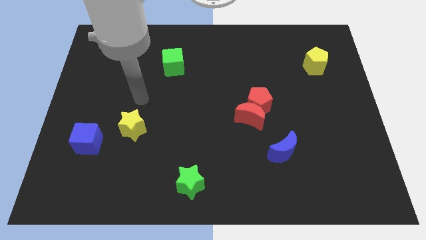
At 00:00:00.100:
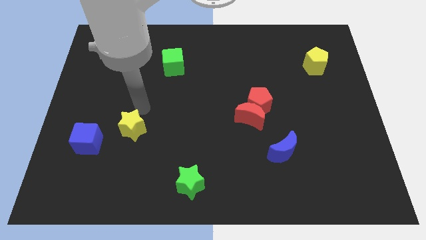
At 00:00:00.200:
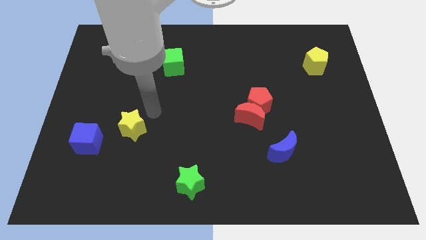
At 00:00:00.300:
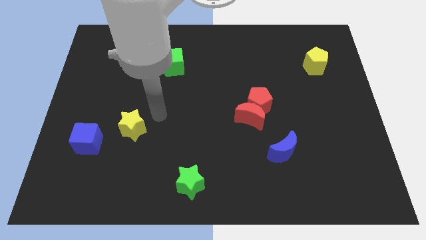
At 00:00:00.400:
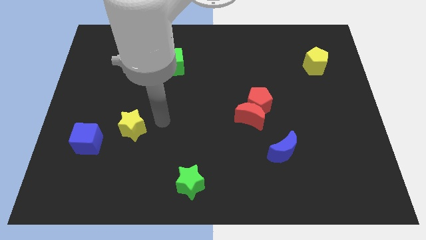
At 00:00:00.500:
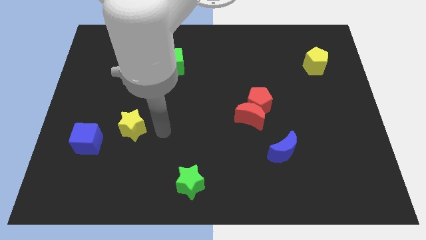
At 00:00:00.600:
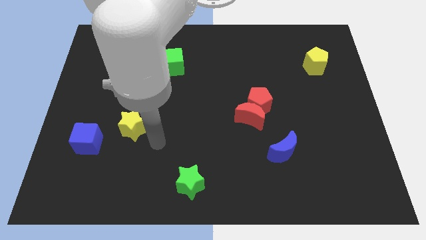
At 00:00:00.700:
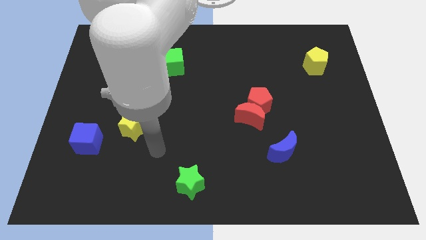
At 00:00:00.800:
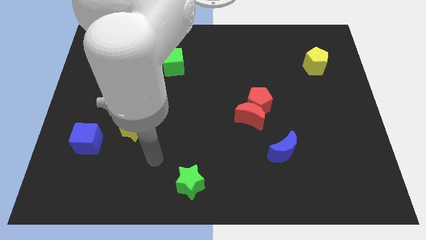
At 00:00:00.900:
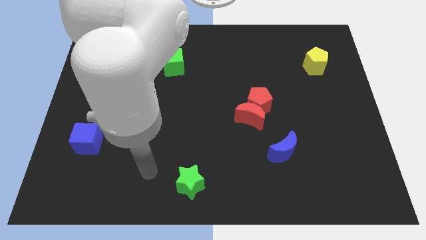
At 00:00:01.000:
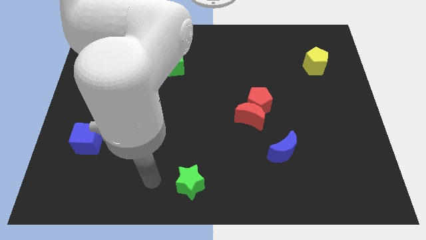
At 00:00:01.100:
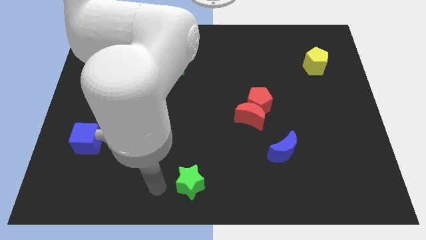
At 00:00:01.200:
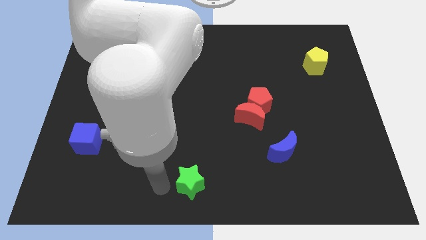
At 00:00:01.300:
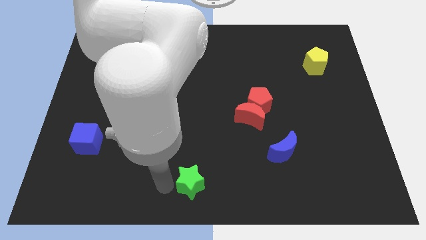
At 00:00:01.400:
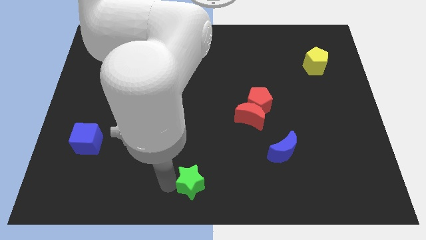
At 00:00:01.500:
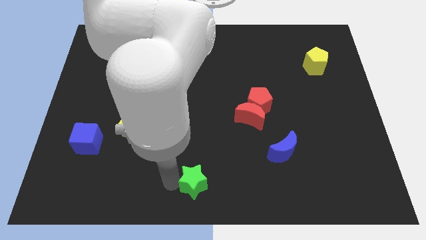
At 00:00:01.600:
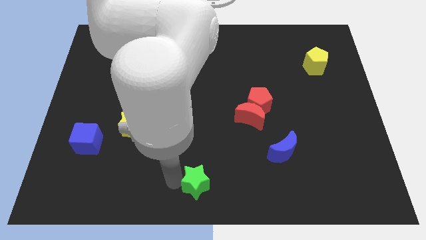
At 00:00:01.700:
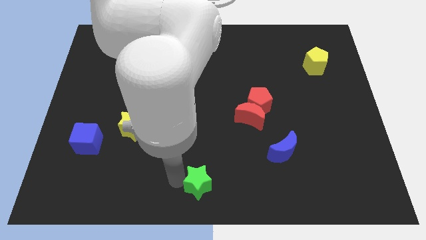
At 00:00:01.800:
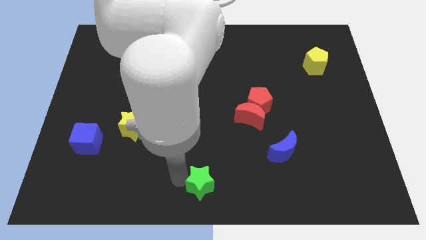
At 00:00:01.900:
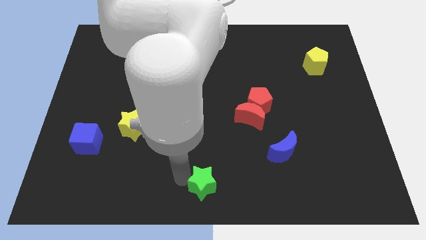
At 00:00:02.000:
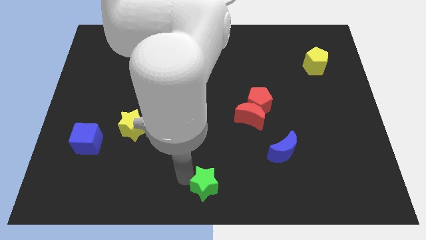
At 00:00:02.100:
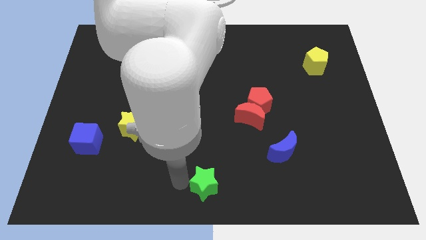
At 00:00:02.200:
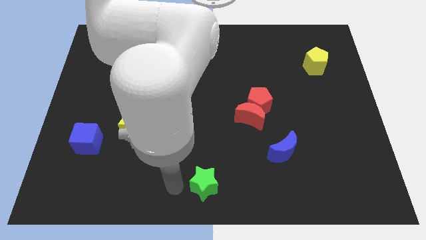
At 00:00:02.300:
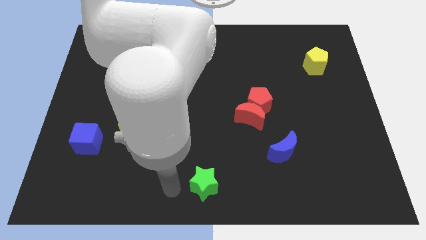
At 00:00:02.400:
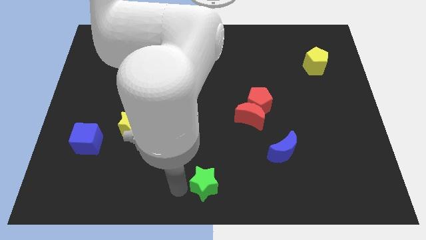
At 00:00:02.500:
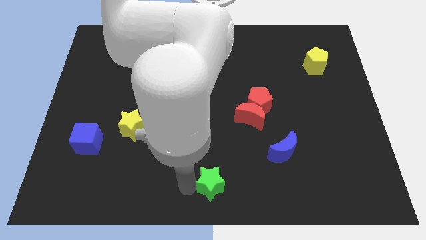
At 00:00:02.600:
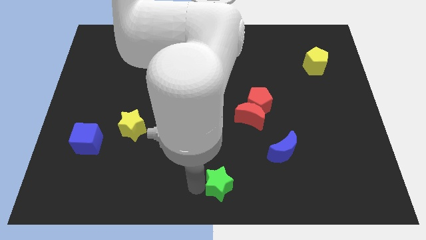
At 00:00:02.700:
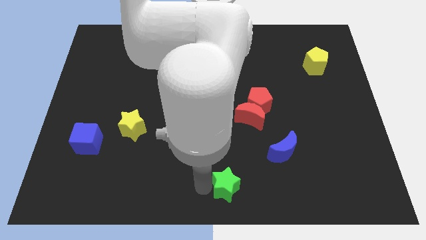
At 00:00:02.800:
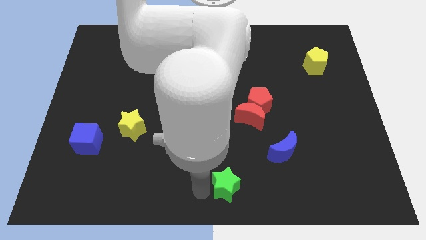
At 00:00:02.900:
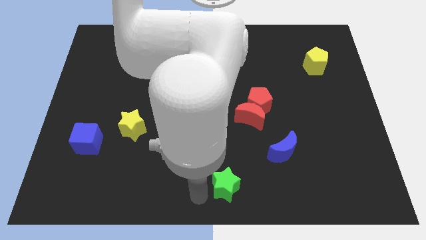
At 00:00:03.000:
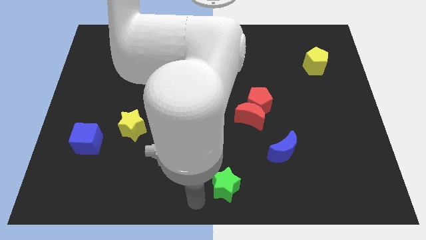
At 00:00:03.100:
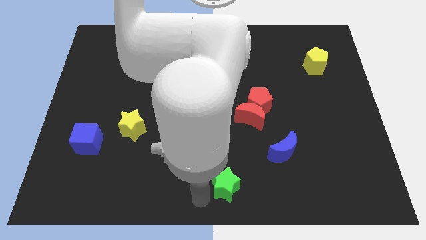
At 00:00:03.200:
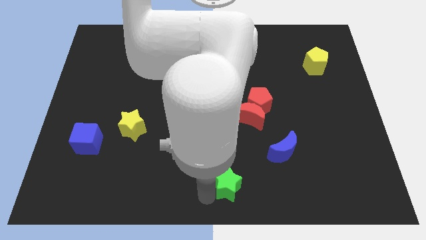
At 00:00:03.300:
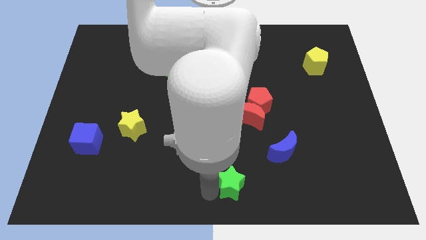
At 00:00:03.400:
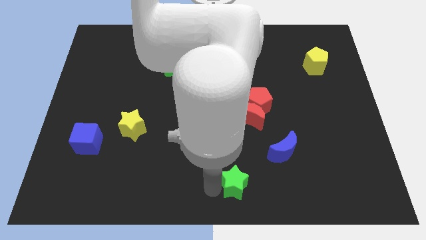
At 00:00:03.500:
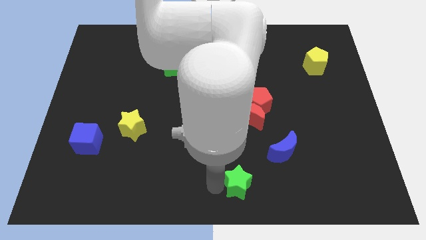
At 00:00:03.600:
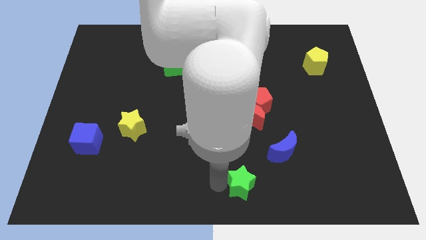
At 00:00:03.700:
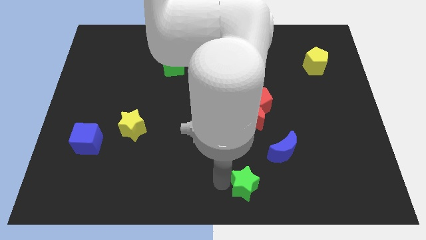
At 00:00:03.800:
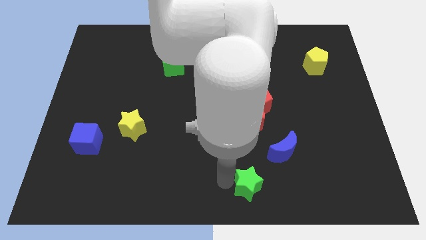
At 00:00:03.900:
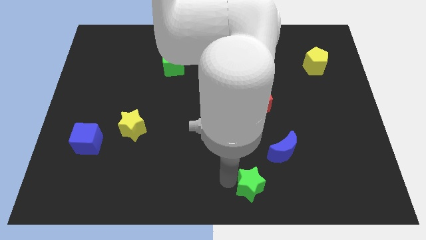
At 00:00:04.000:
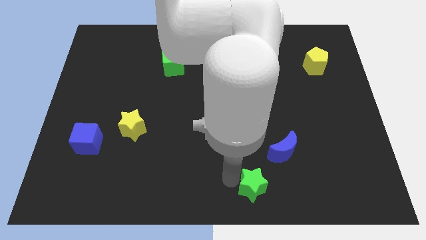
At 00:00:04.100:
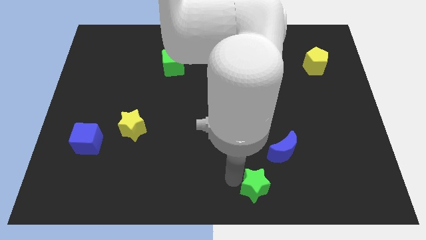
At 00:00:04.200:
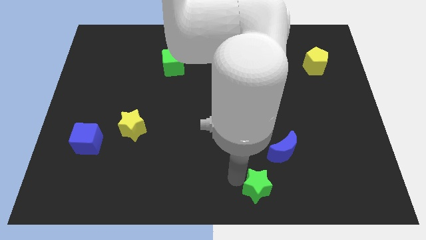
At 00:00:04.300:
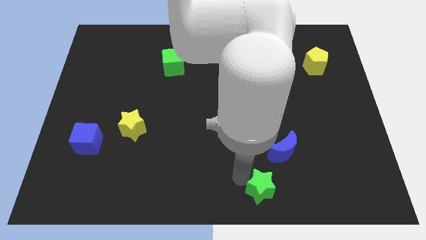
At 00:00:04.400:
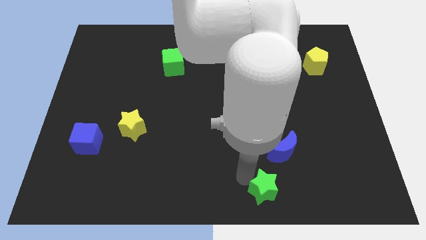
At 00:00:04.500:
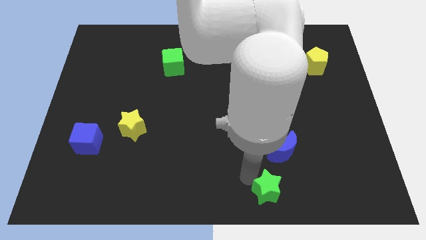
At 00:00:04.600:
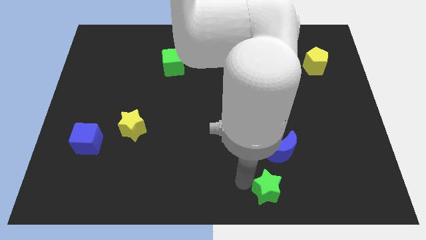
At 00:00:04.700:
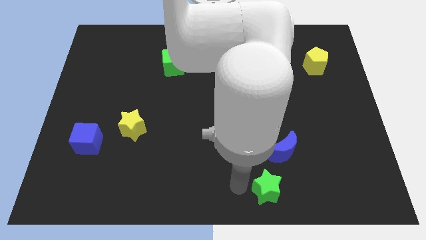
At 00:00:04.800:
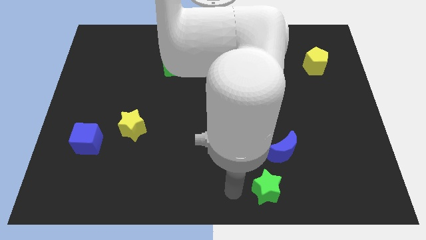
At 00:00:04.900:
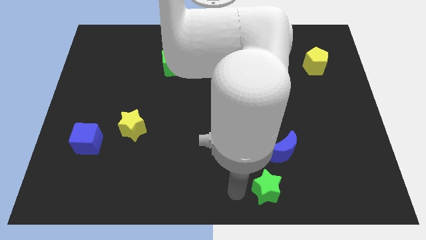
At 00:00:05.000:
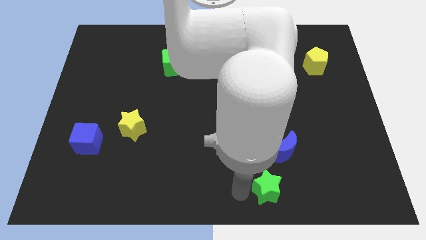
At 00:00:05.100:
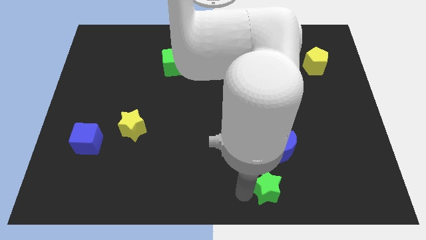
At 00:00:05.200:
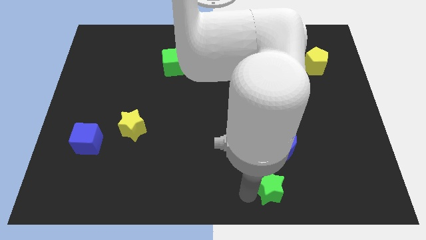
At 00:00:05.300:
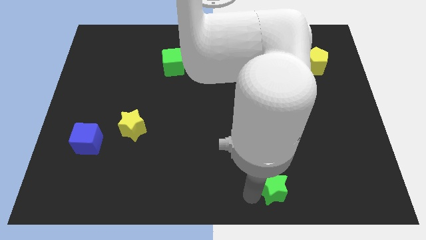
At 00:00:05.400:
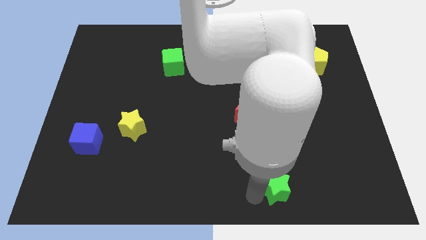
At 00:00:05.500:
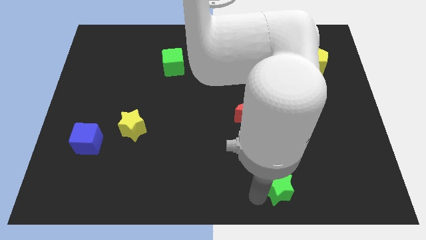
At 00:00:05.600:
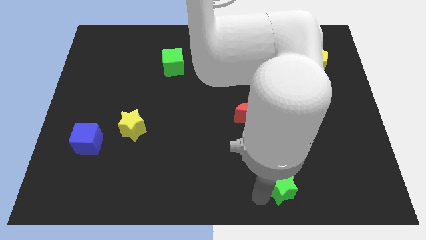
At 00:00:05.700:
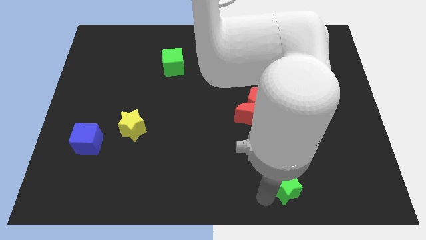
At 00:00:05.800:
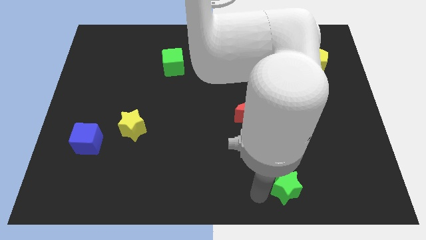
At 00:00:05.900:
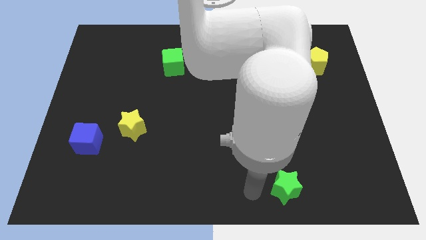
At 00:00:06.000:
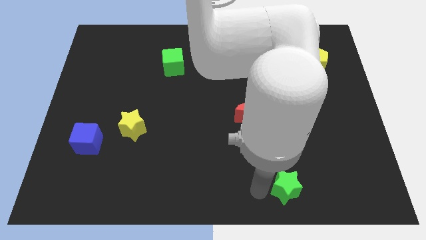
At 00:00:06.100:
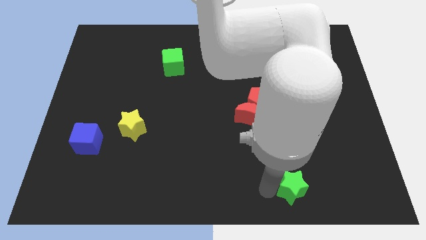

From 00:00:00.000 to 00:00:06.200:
push the green star right

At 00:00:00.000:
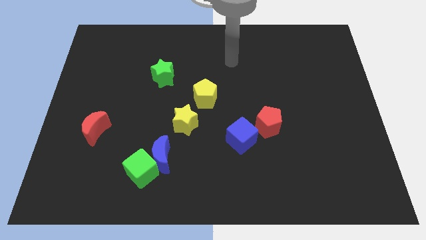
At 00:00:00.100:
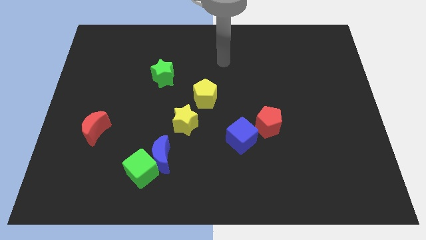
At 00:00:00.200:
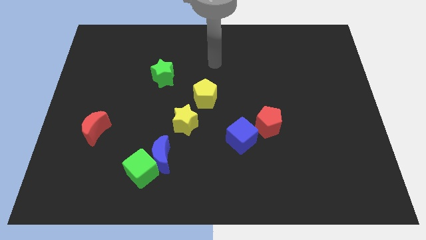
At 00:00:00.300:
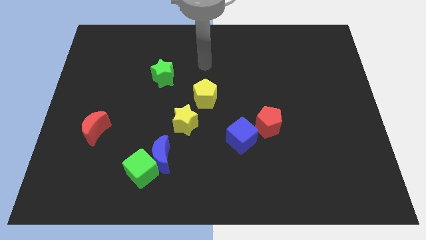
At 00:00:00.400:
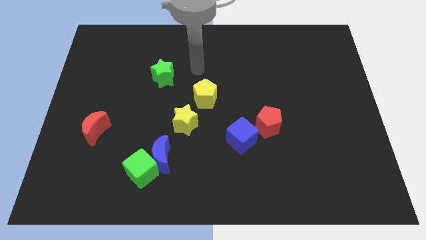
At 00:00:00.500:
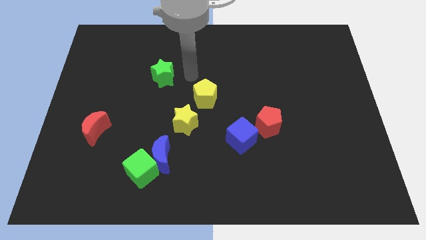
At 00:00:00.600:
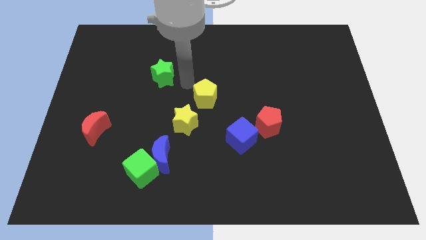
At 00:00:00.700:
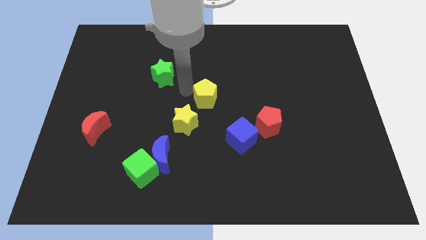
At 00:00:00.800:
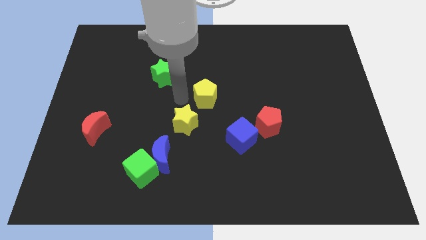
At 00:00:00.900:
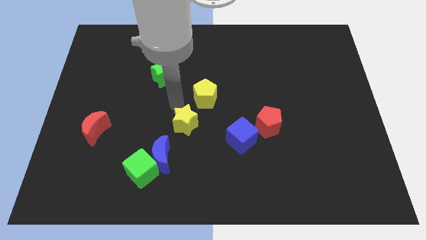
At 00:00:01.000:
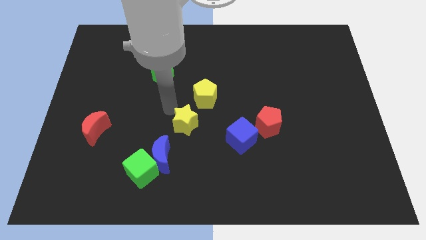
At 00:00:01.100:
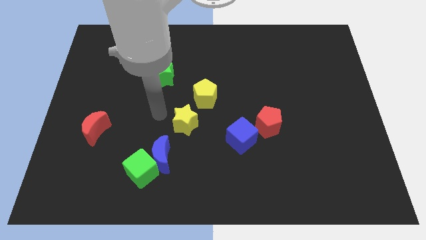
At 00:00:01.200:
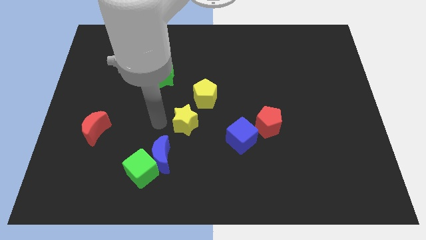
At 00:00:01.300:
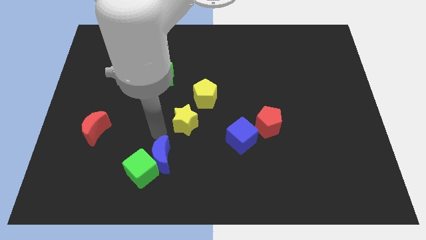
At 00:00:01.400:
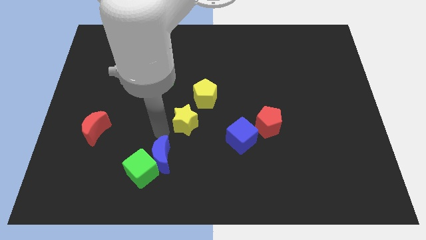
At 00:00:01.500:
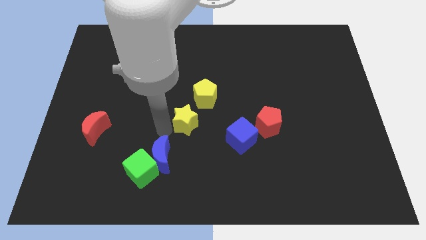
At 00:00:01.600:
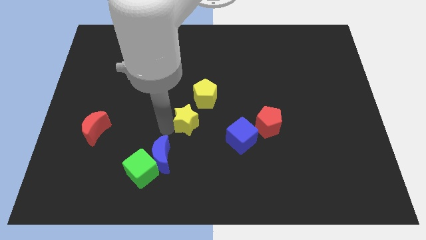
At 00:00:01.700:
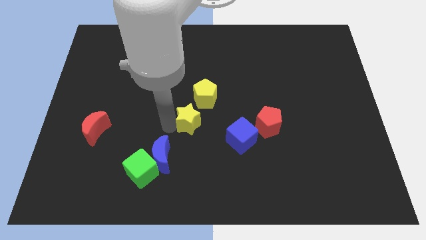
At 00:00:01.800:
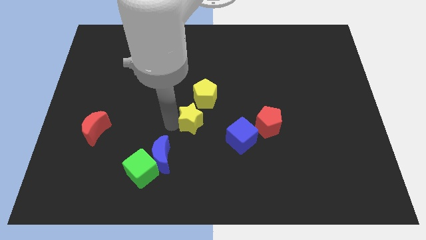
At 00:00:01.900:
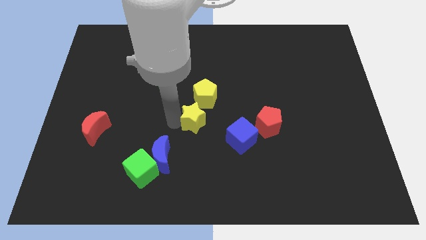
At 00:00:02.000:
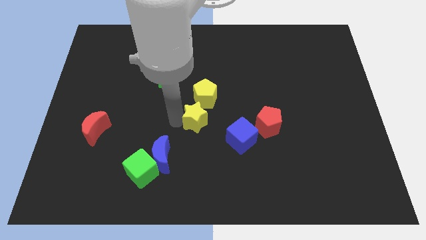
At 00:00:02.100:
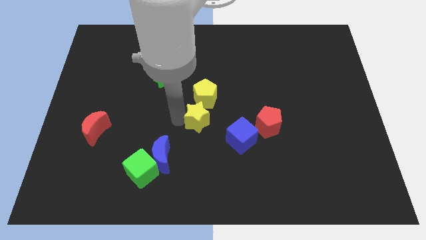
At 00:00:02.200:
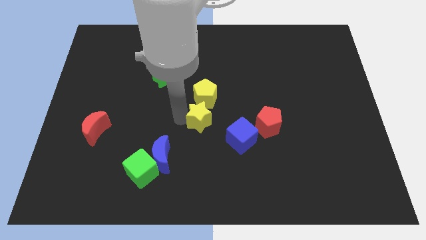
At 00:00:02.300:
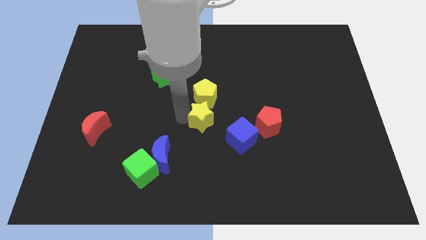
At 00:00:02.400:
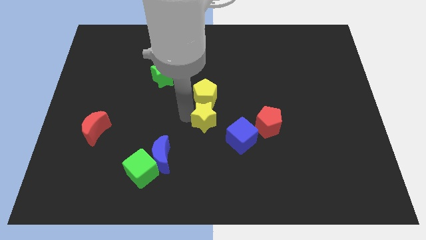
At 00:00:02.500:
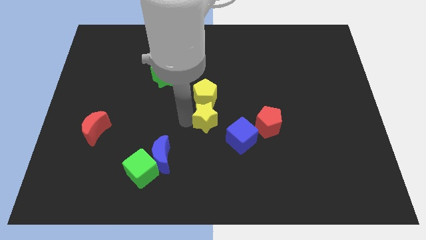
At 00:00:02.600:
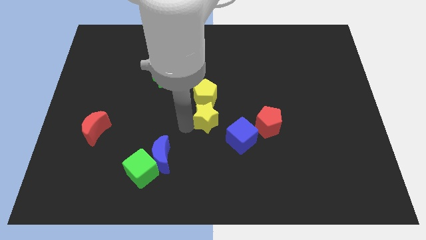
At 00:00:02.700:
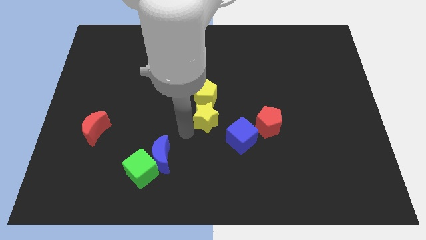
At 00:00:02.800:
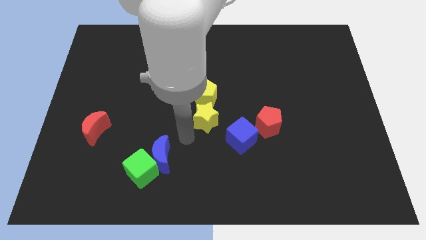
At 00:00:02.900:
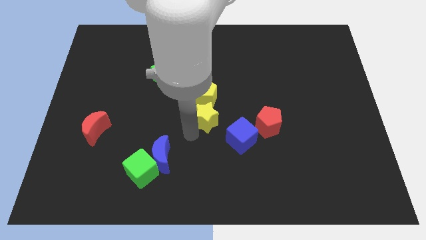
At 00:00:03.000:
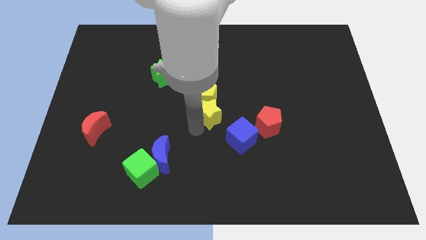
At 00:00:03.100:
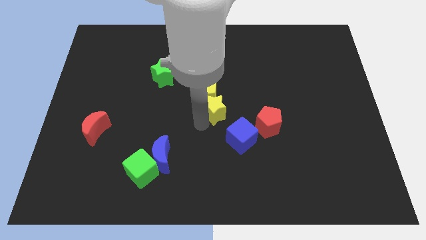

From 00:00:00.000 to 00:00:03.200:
slide the yellow star upwards and right diagonally slightly
